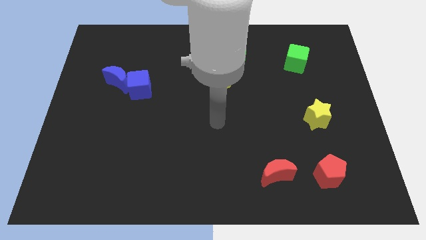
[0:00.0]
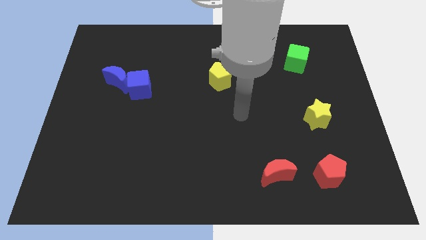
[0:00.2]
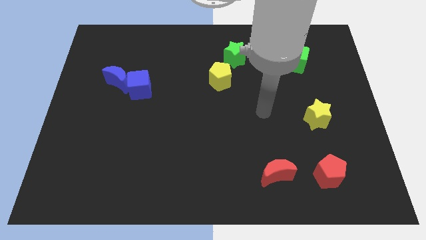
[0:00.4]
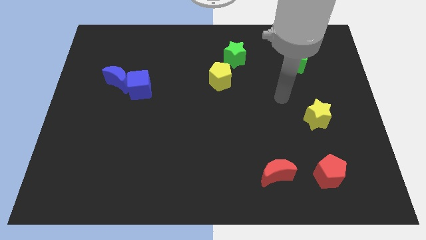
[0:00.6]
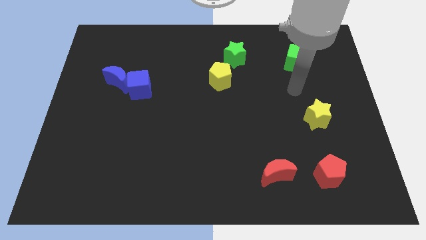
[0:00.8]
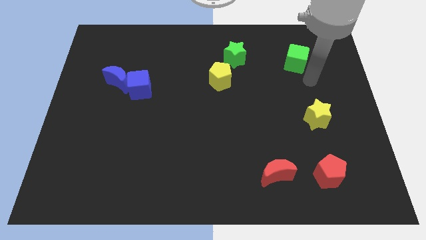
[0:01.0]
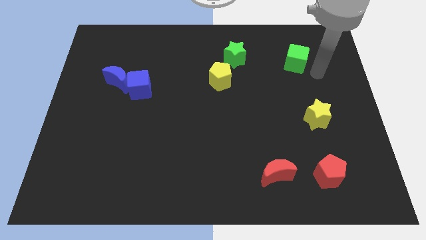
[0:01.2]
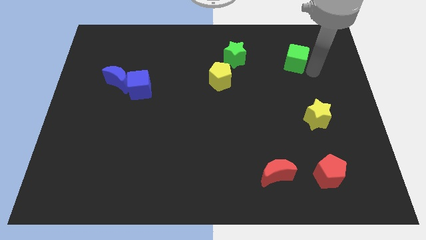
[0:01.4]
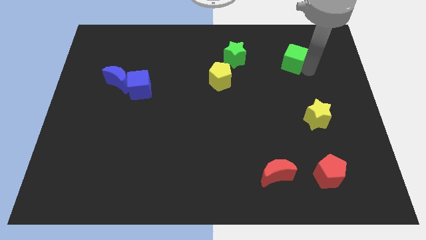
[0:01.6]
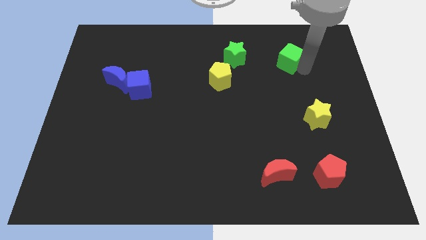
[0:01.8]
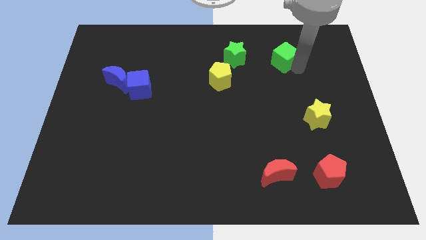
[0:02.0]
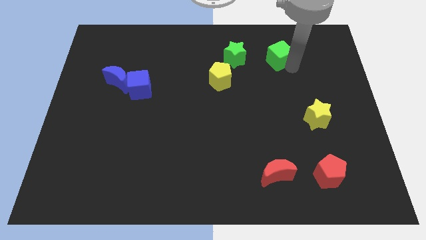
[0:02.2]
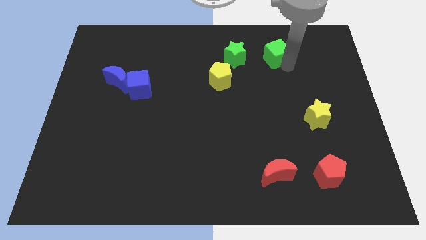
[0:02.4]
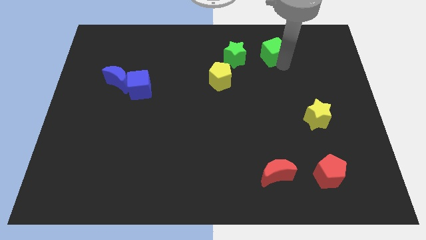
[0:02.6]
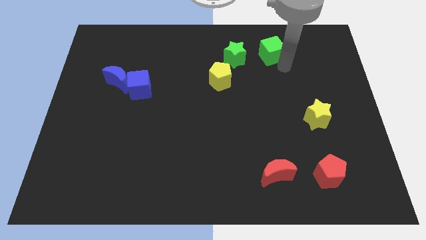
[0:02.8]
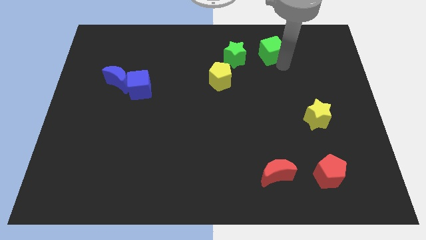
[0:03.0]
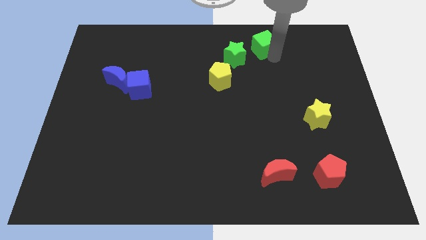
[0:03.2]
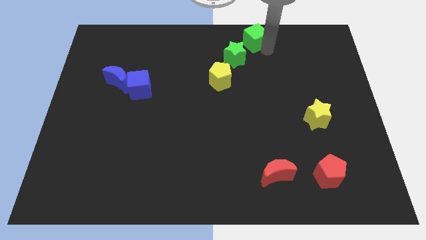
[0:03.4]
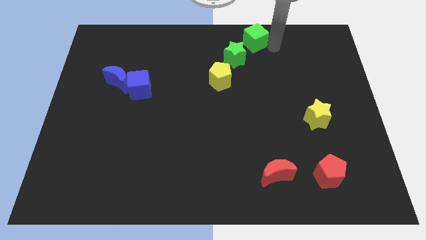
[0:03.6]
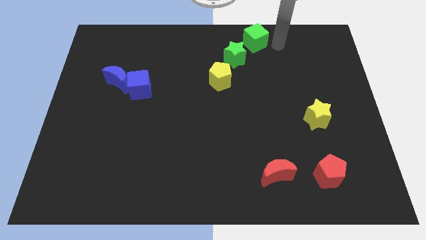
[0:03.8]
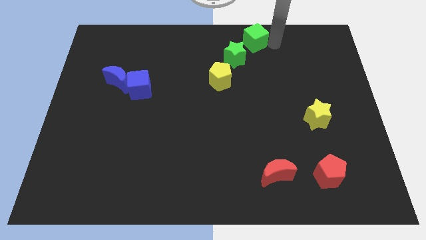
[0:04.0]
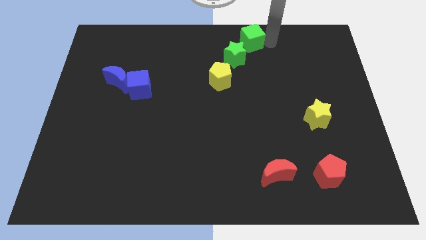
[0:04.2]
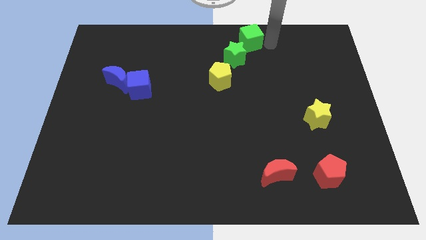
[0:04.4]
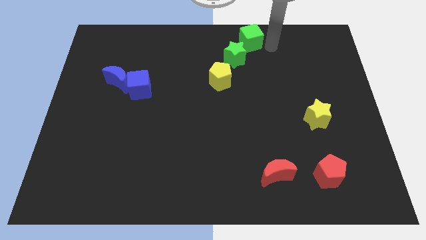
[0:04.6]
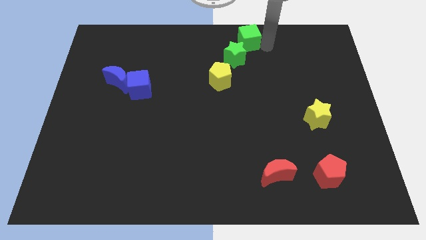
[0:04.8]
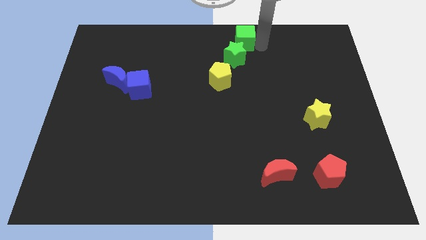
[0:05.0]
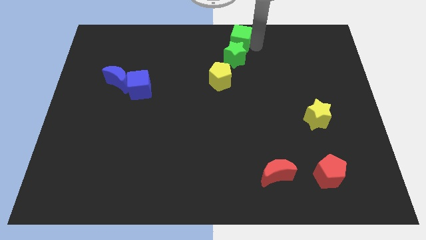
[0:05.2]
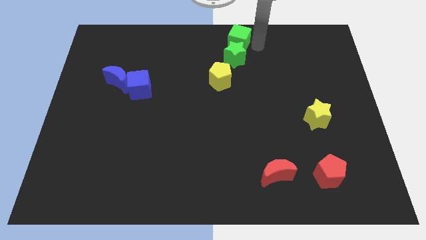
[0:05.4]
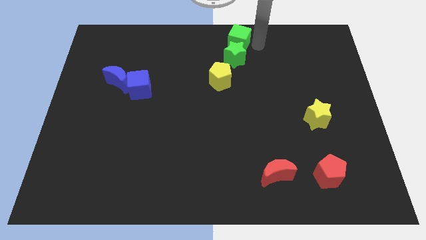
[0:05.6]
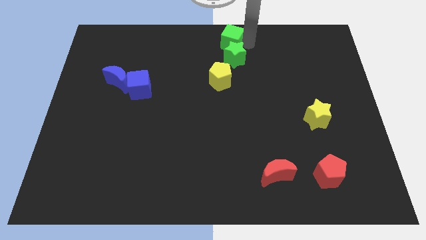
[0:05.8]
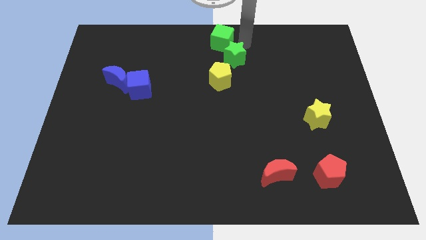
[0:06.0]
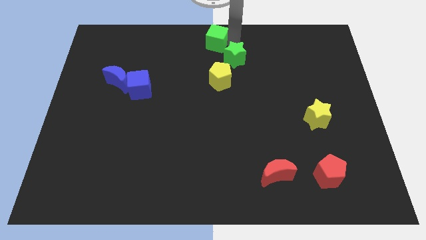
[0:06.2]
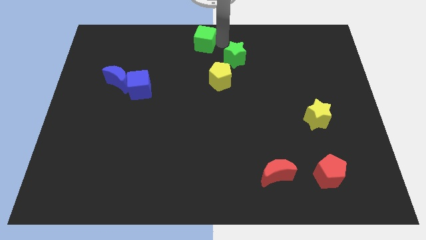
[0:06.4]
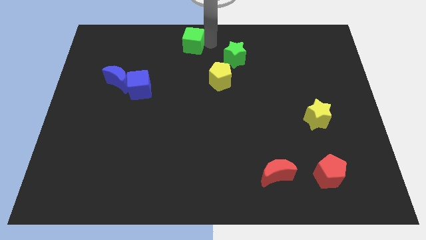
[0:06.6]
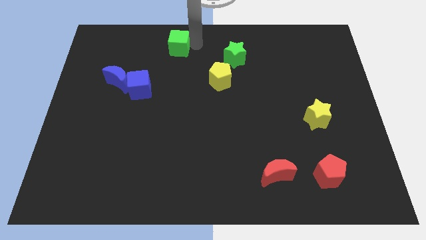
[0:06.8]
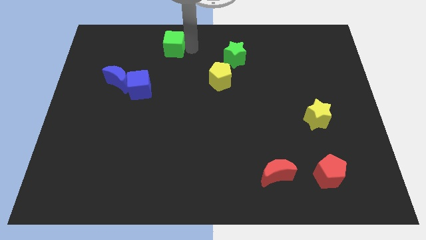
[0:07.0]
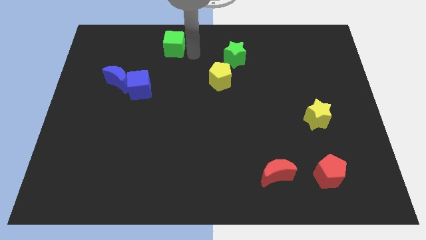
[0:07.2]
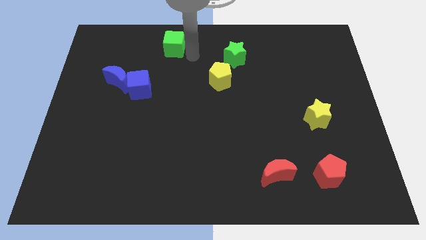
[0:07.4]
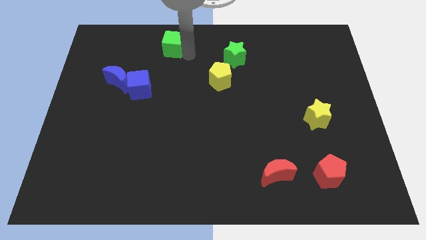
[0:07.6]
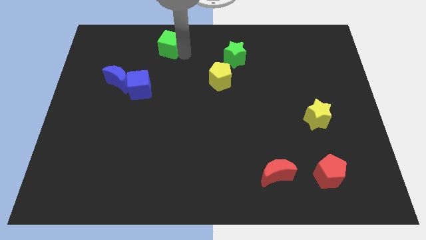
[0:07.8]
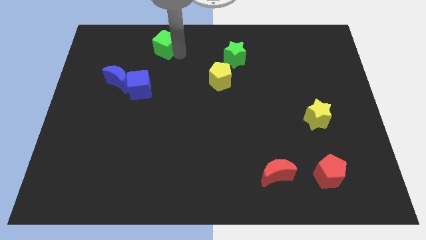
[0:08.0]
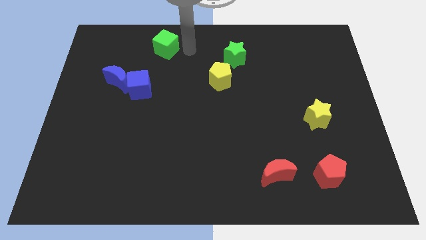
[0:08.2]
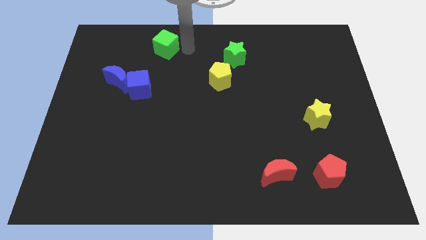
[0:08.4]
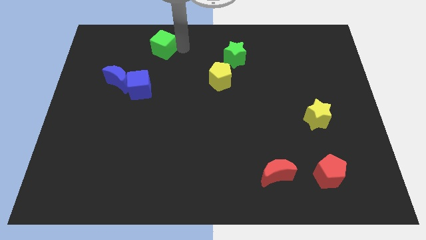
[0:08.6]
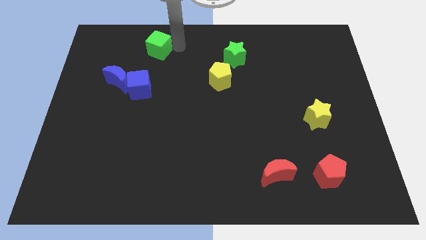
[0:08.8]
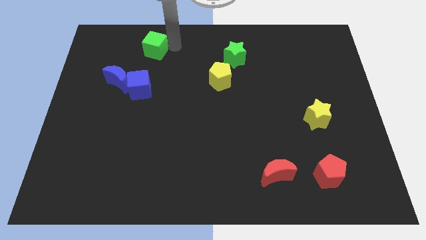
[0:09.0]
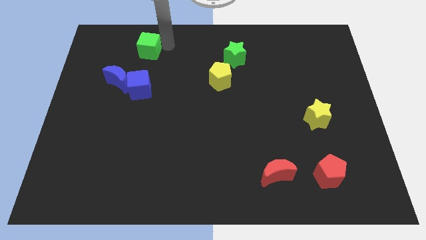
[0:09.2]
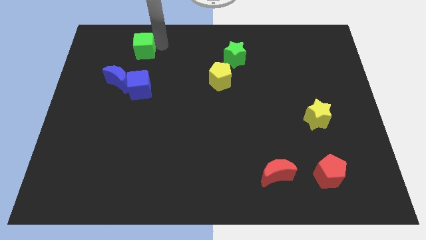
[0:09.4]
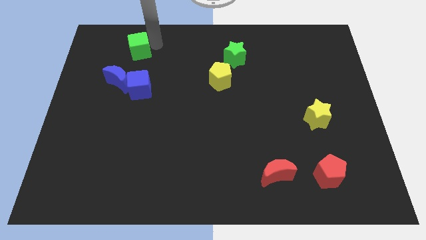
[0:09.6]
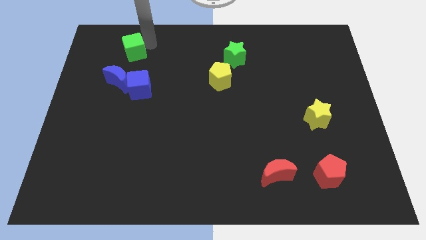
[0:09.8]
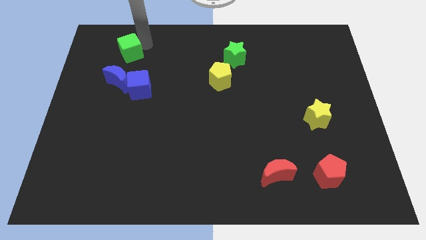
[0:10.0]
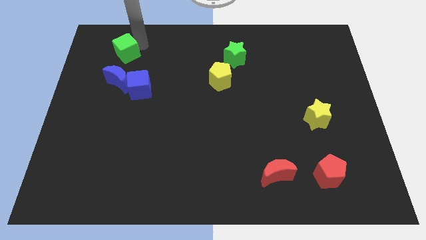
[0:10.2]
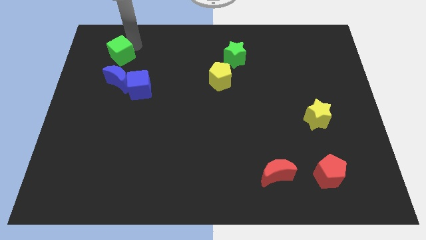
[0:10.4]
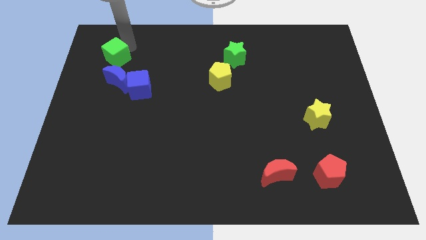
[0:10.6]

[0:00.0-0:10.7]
put the green cube to the top left of the blue moon

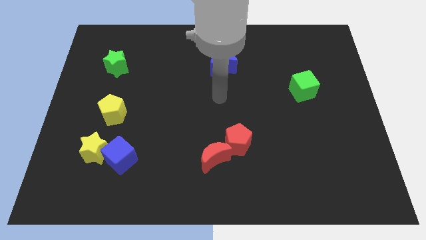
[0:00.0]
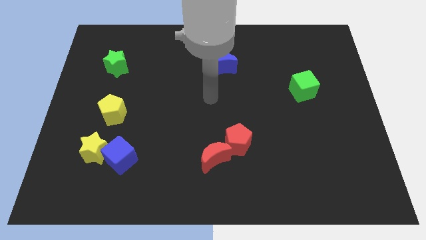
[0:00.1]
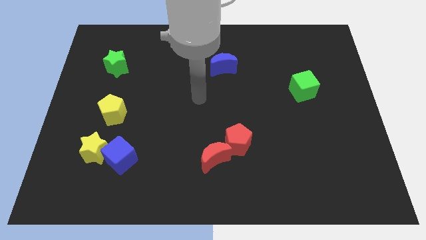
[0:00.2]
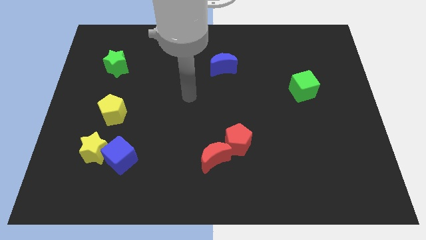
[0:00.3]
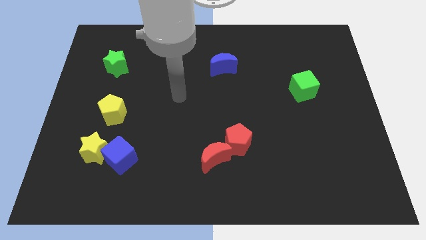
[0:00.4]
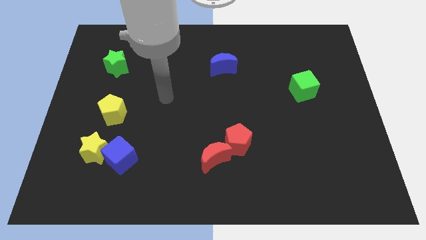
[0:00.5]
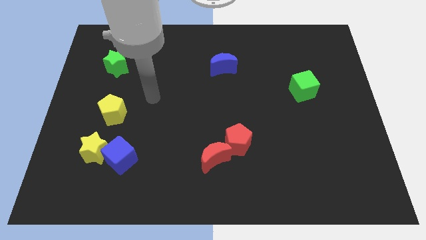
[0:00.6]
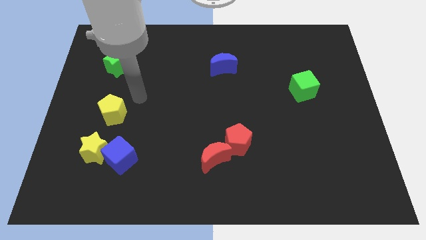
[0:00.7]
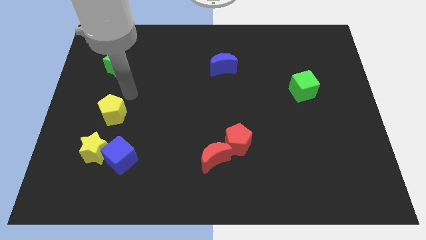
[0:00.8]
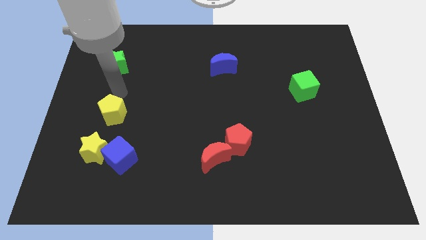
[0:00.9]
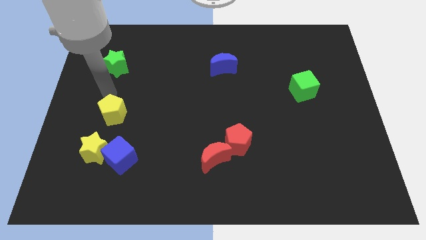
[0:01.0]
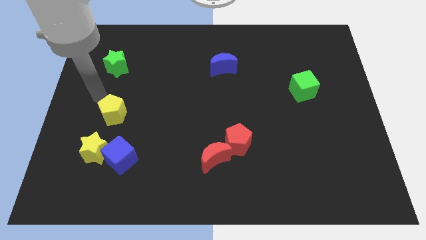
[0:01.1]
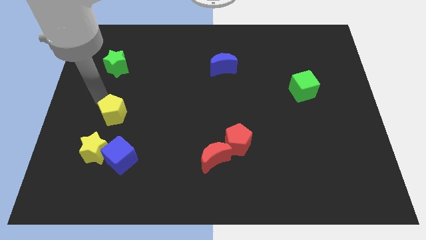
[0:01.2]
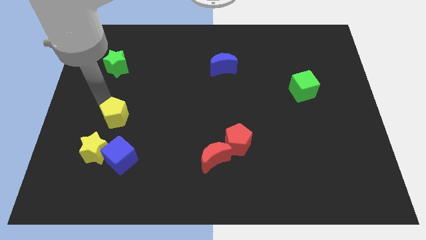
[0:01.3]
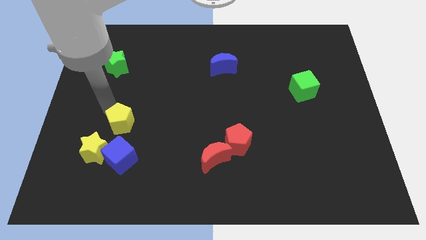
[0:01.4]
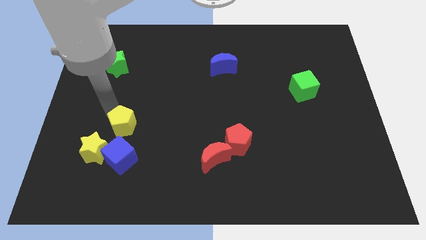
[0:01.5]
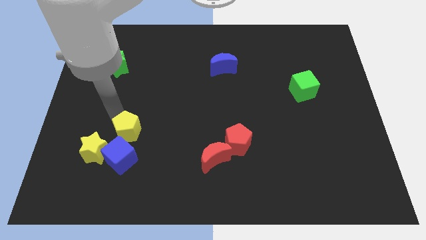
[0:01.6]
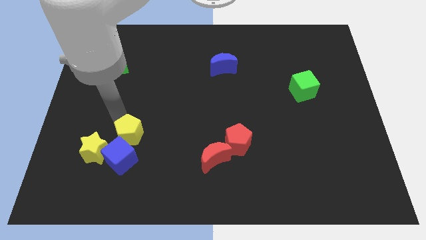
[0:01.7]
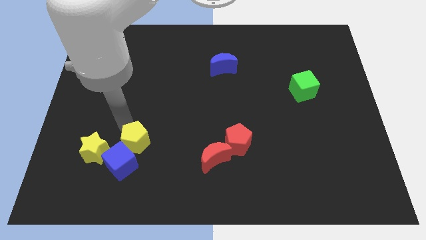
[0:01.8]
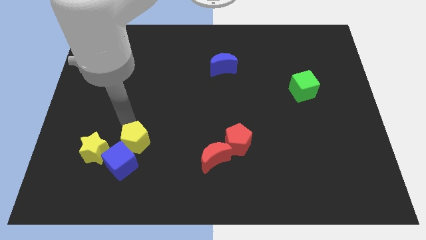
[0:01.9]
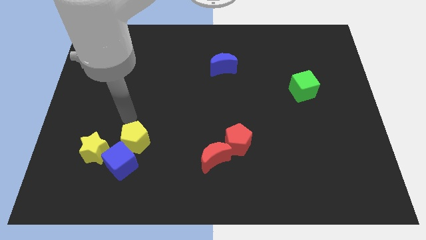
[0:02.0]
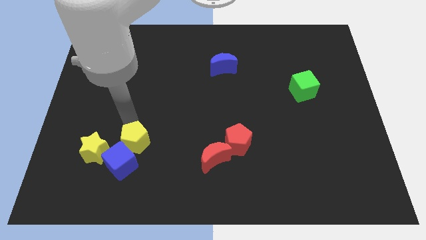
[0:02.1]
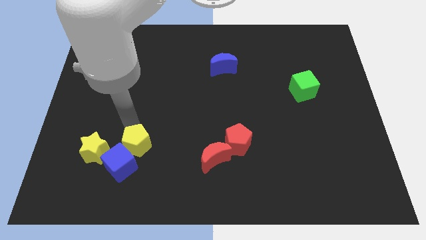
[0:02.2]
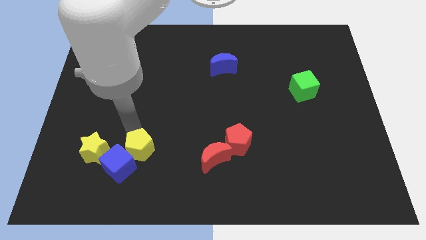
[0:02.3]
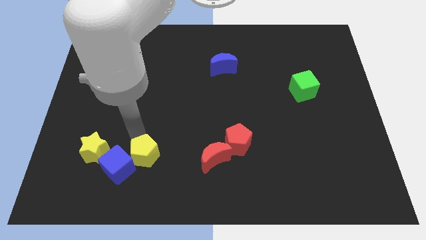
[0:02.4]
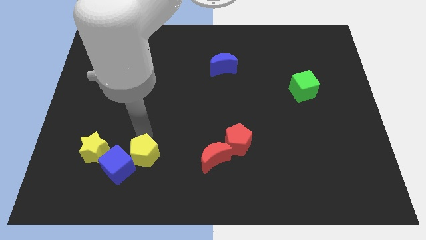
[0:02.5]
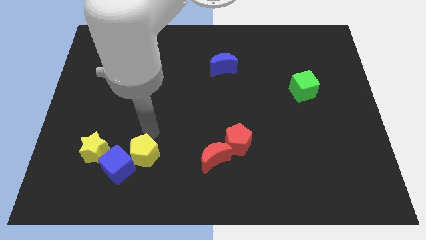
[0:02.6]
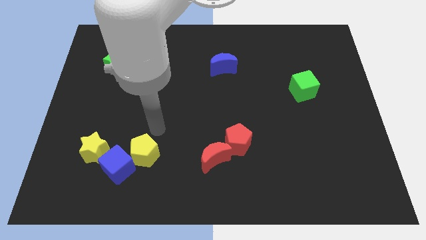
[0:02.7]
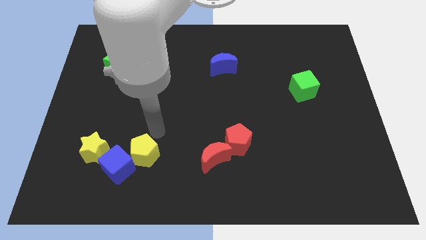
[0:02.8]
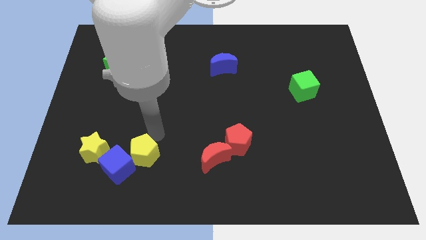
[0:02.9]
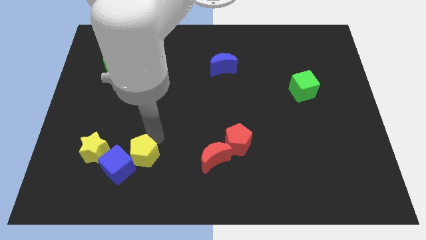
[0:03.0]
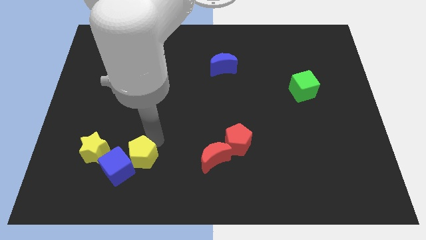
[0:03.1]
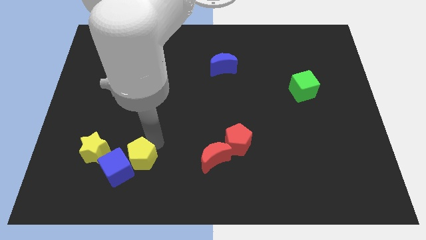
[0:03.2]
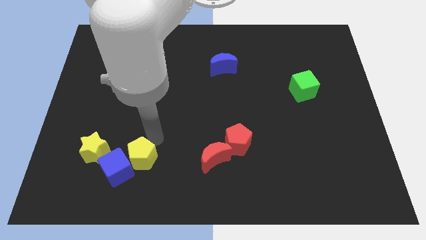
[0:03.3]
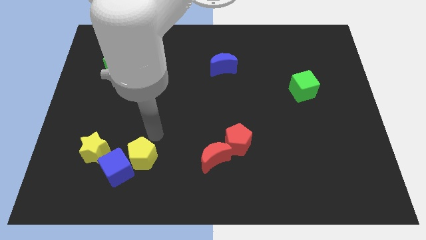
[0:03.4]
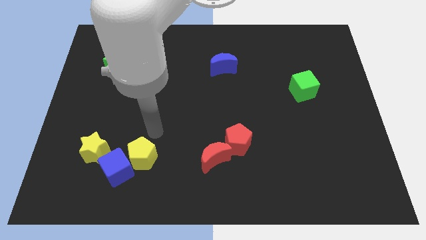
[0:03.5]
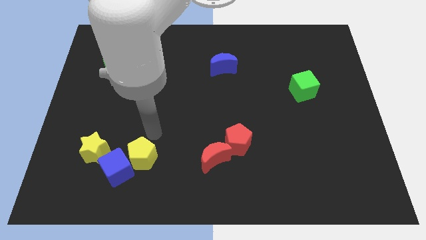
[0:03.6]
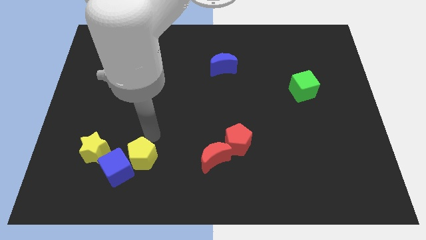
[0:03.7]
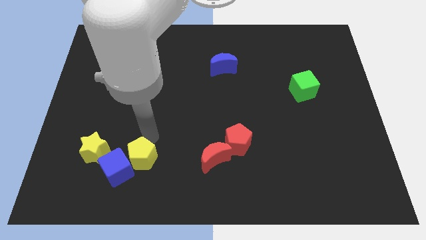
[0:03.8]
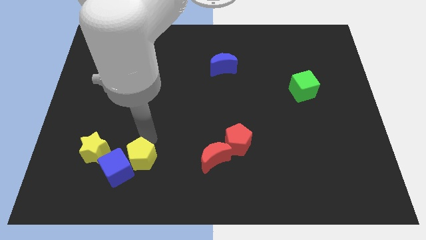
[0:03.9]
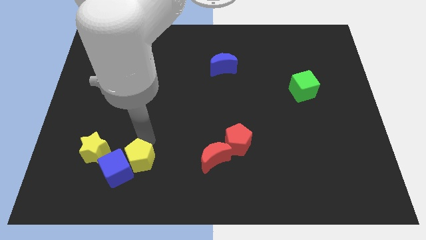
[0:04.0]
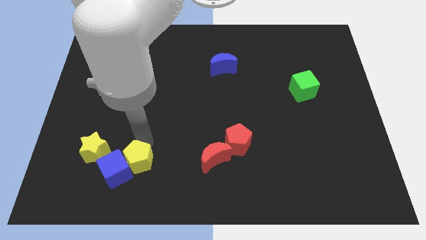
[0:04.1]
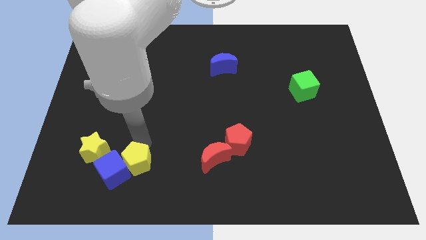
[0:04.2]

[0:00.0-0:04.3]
move the yellow pentagon to the bottom right side of the yellow star
